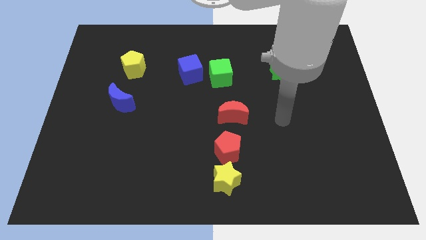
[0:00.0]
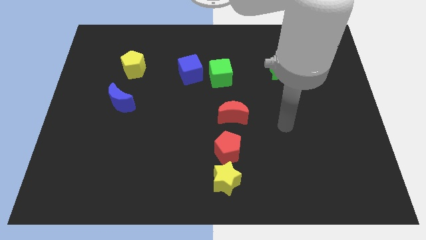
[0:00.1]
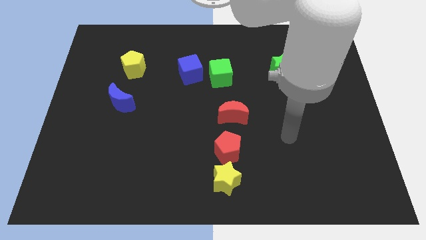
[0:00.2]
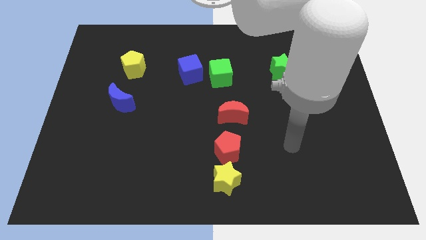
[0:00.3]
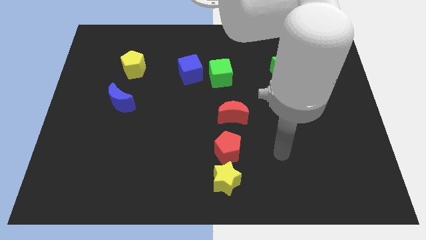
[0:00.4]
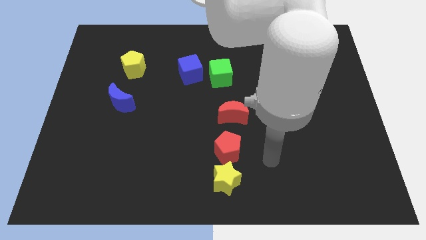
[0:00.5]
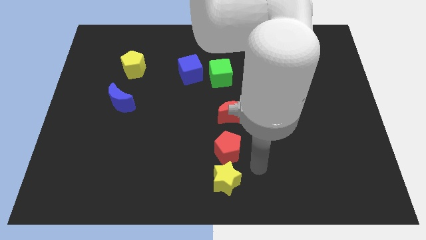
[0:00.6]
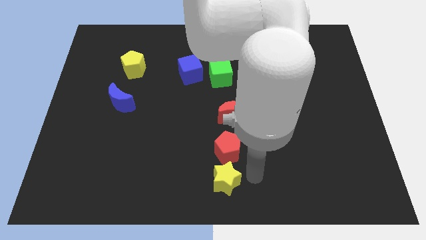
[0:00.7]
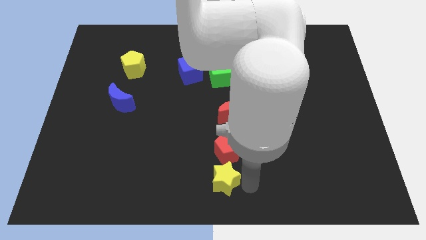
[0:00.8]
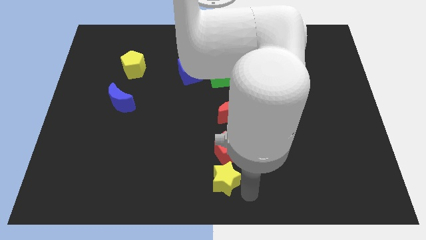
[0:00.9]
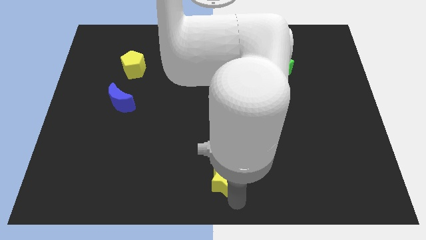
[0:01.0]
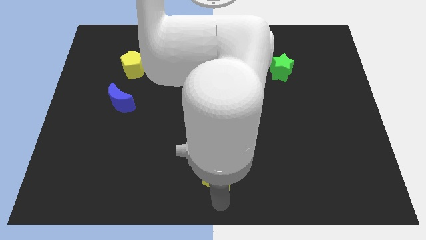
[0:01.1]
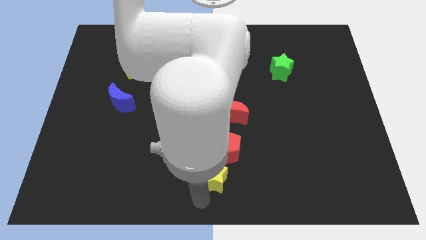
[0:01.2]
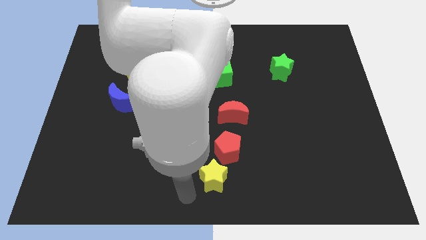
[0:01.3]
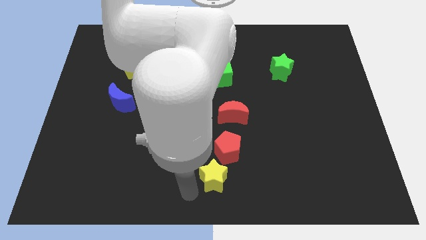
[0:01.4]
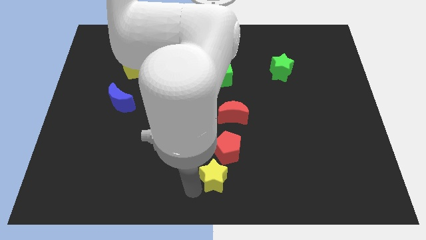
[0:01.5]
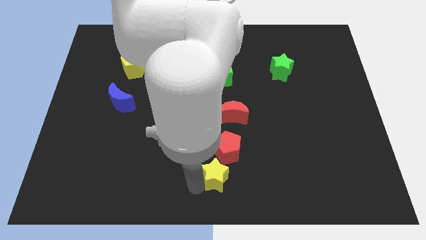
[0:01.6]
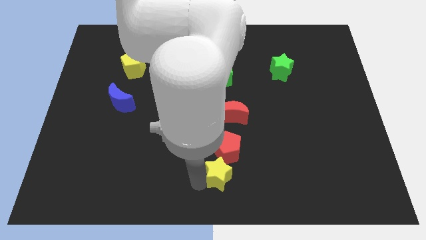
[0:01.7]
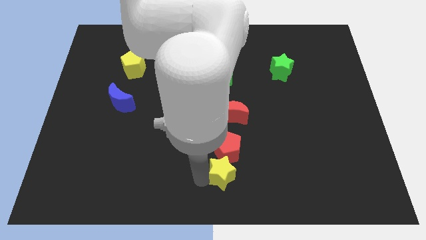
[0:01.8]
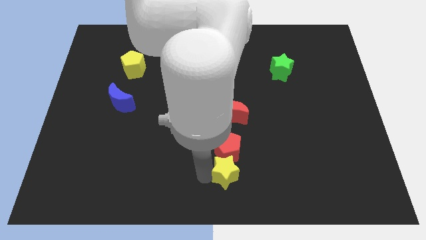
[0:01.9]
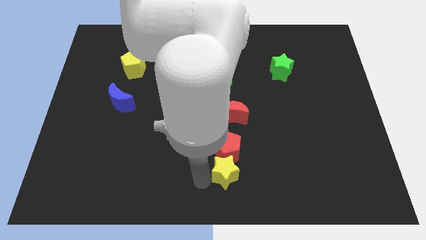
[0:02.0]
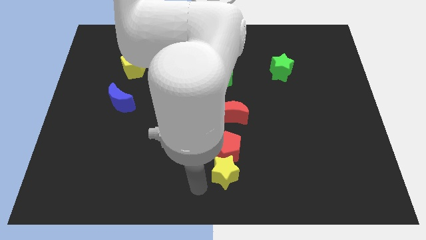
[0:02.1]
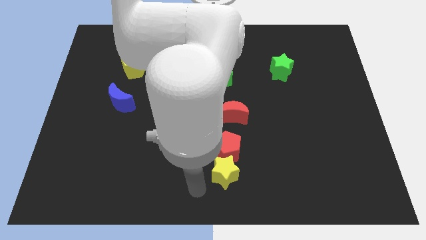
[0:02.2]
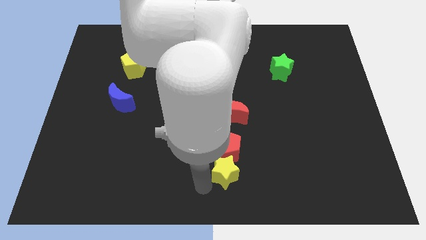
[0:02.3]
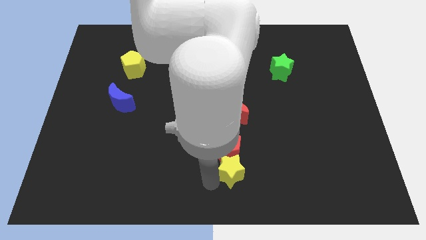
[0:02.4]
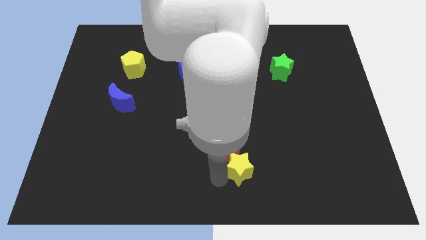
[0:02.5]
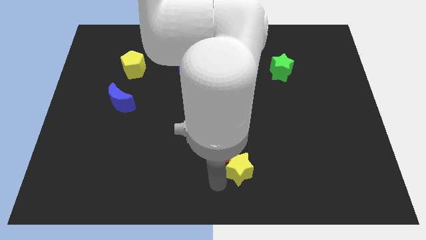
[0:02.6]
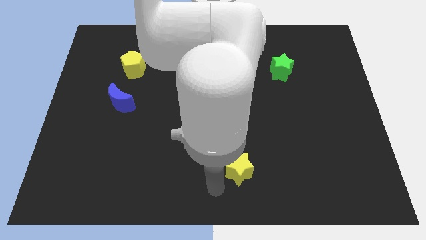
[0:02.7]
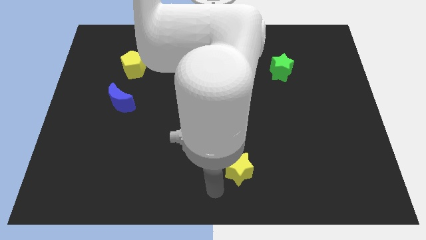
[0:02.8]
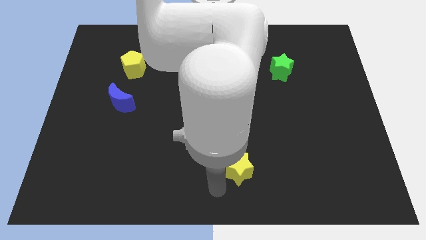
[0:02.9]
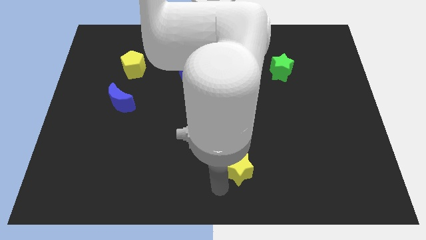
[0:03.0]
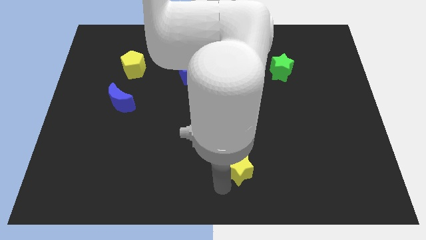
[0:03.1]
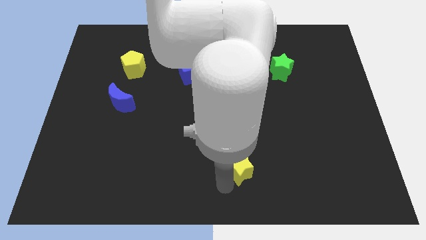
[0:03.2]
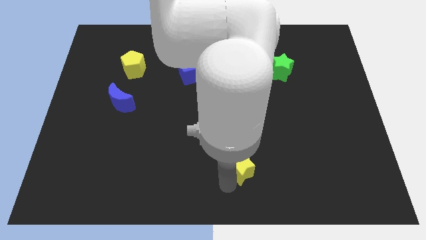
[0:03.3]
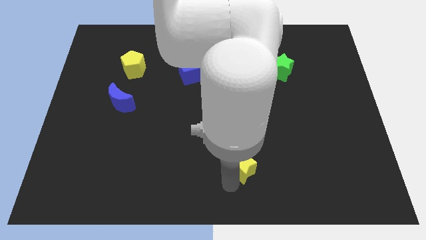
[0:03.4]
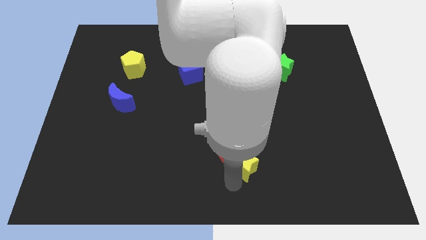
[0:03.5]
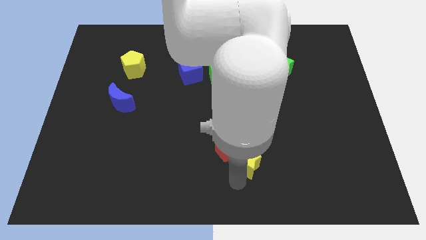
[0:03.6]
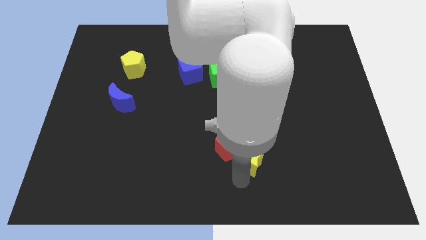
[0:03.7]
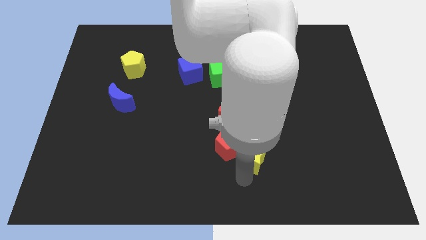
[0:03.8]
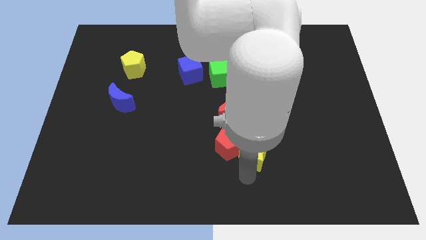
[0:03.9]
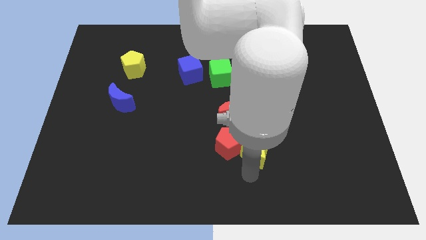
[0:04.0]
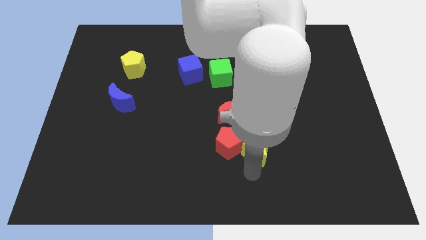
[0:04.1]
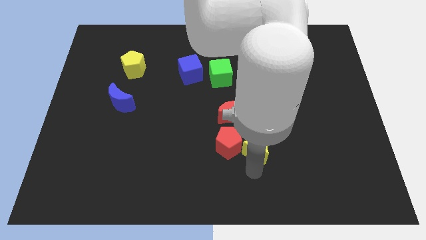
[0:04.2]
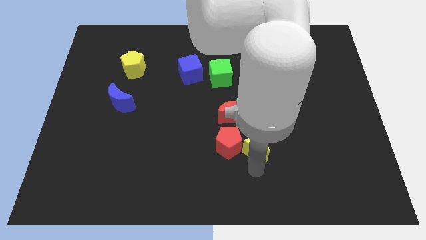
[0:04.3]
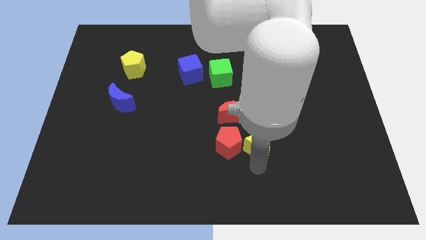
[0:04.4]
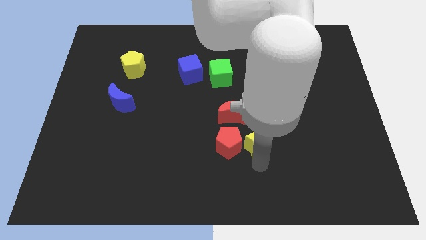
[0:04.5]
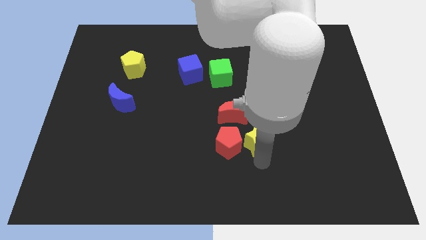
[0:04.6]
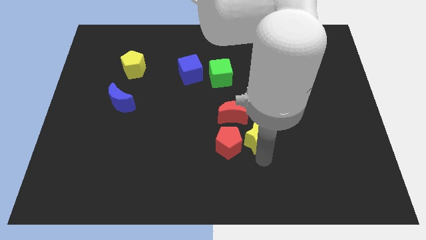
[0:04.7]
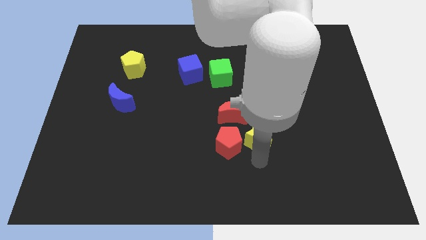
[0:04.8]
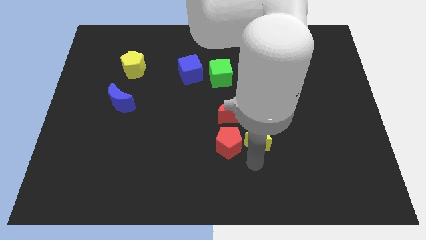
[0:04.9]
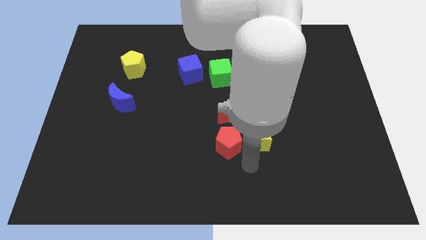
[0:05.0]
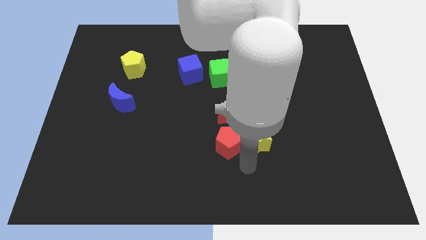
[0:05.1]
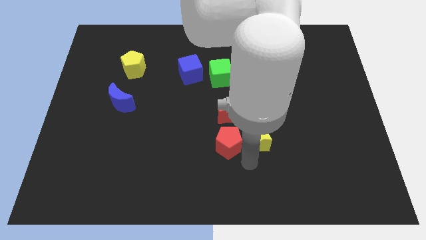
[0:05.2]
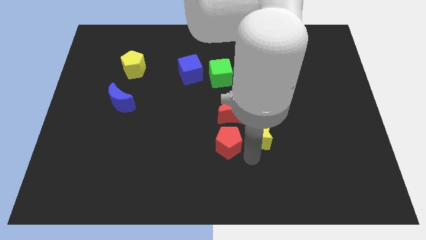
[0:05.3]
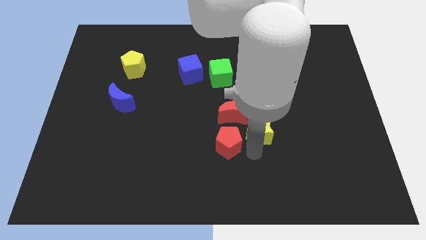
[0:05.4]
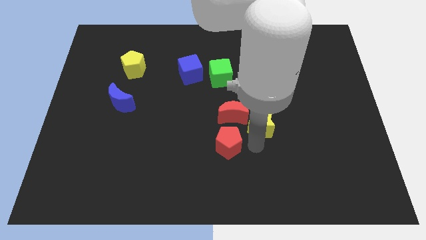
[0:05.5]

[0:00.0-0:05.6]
move the yellow star just right of the red moon

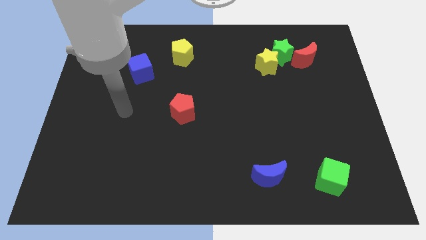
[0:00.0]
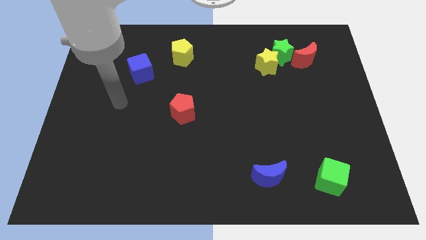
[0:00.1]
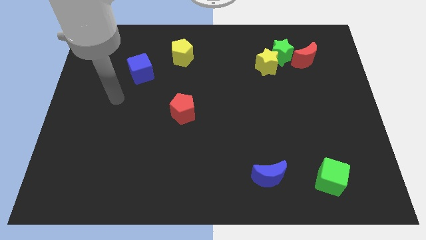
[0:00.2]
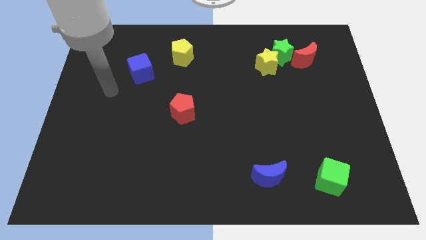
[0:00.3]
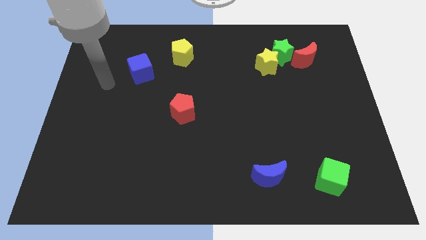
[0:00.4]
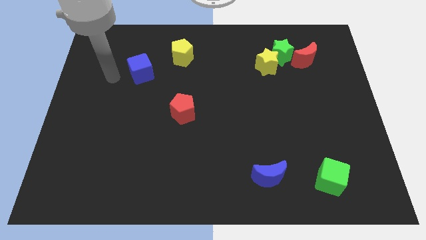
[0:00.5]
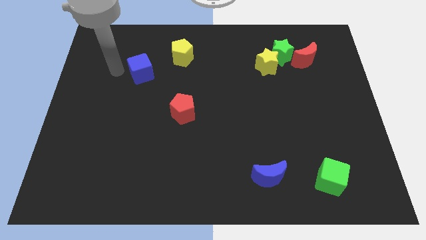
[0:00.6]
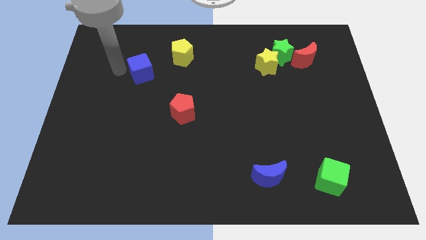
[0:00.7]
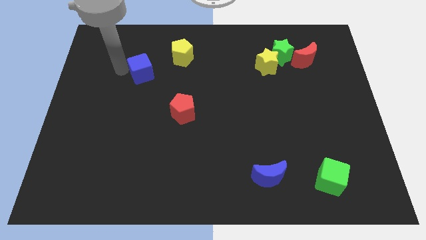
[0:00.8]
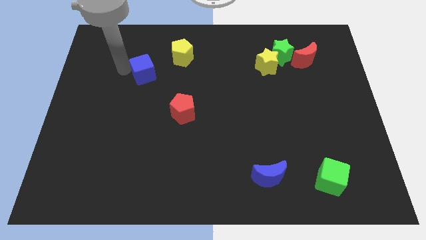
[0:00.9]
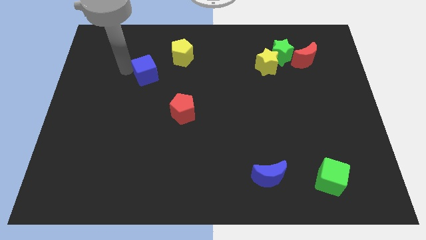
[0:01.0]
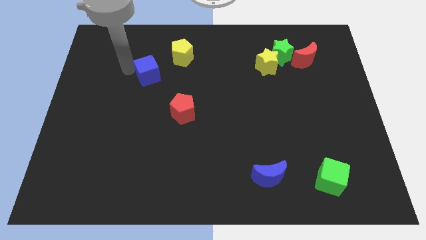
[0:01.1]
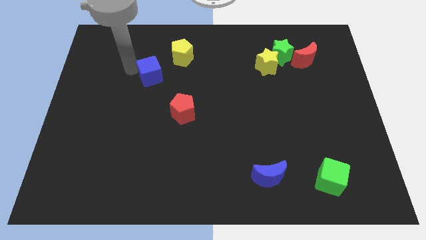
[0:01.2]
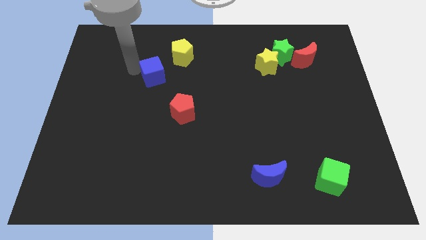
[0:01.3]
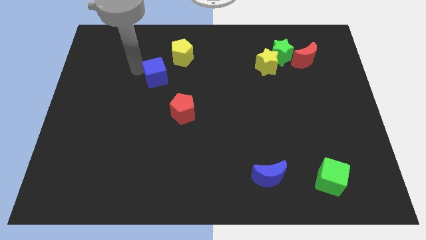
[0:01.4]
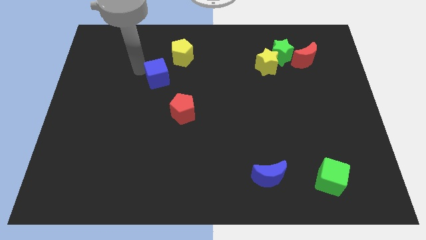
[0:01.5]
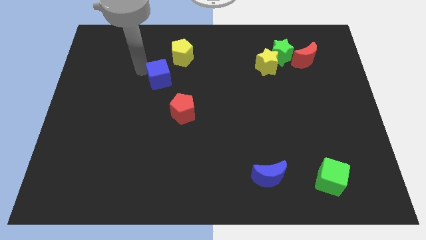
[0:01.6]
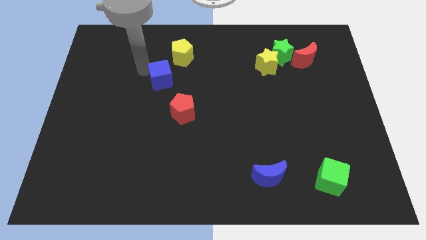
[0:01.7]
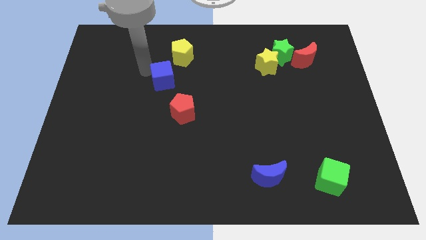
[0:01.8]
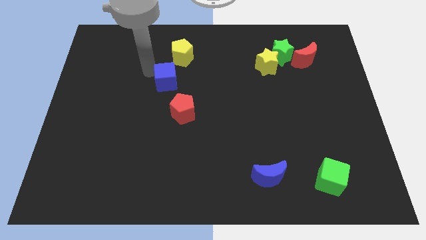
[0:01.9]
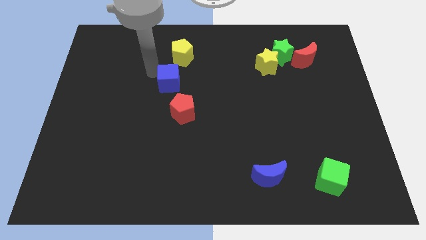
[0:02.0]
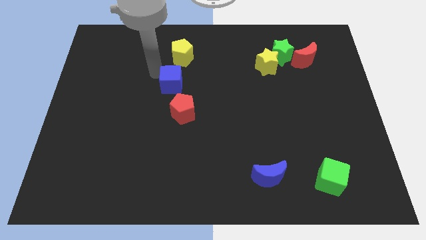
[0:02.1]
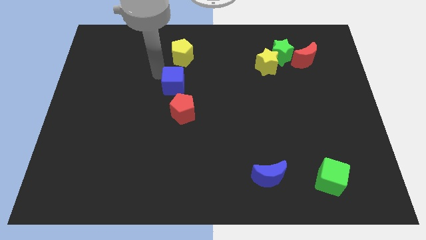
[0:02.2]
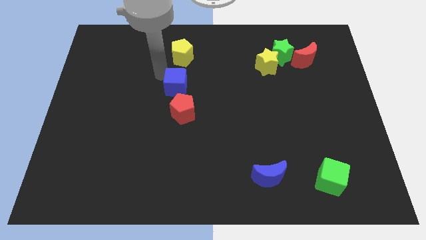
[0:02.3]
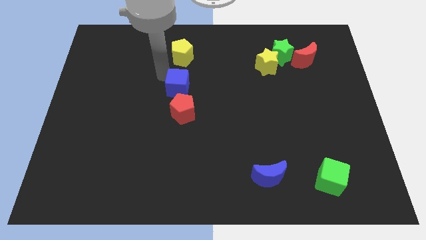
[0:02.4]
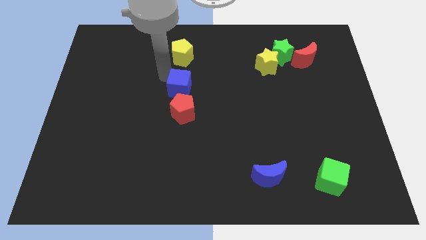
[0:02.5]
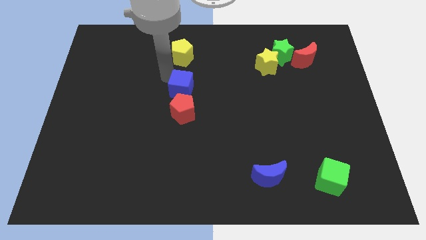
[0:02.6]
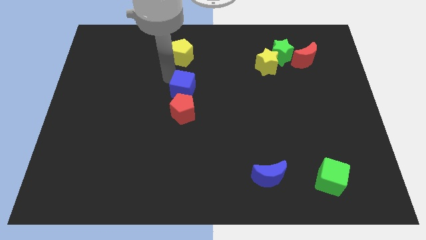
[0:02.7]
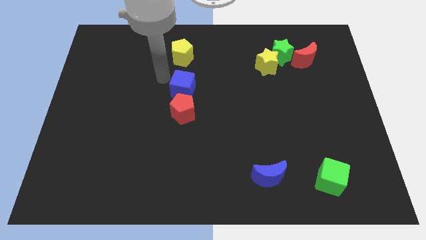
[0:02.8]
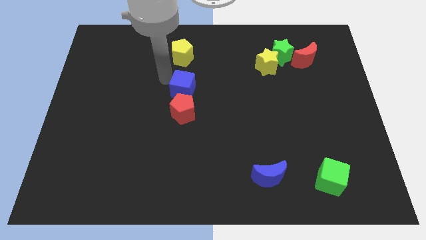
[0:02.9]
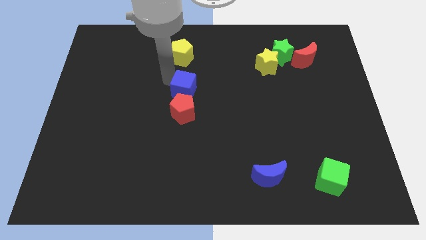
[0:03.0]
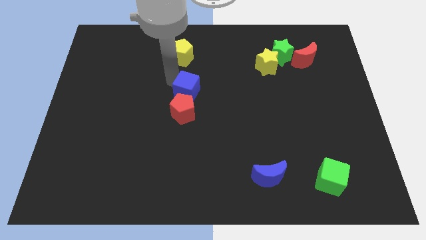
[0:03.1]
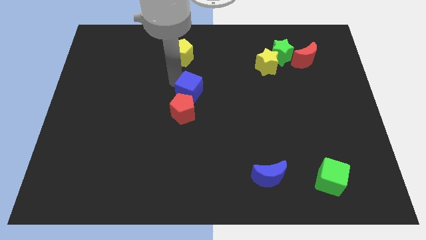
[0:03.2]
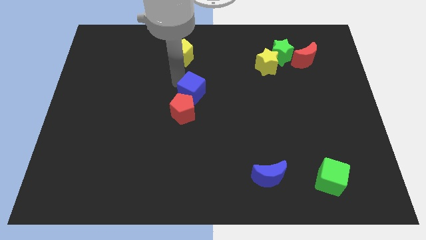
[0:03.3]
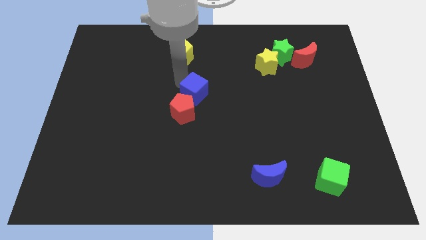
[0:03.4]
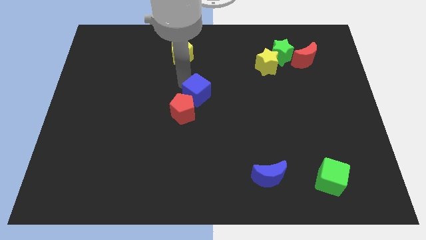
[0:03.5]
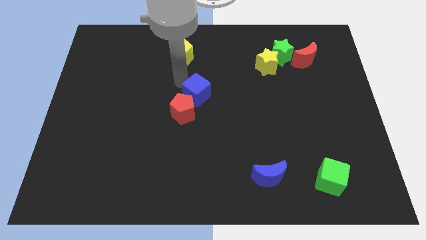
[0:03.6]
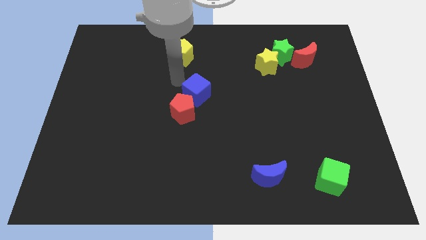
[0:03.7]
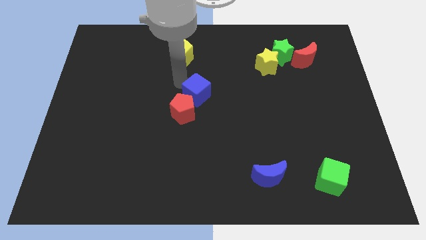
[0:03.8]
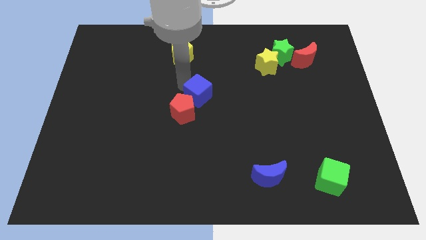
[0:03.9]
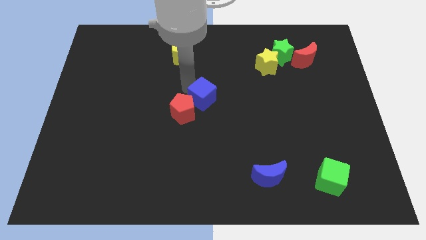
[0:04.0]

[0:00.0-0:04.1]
move the blue cube just right of the red pentagon
